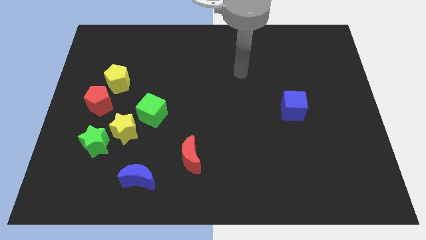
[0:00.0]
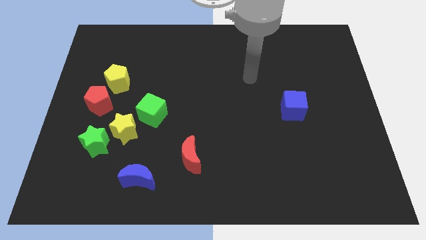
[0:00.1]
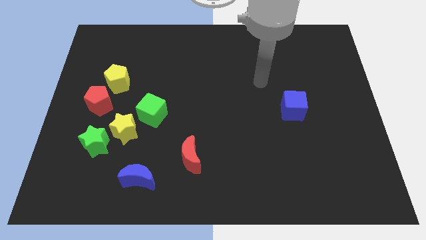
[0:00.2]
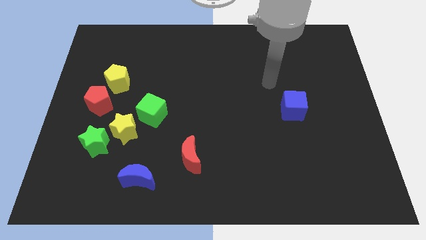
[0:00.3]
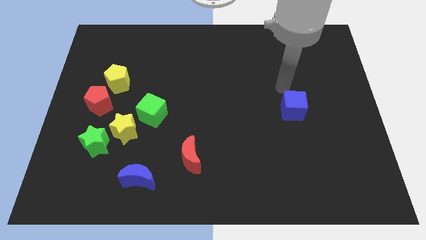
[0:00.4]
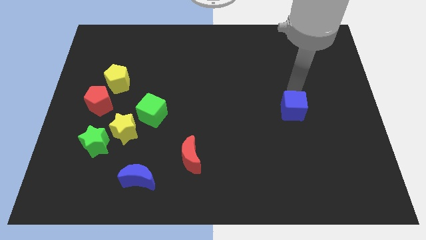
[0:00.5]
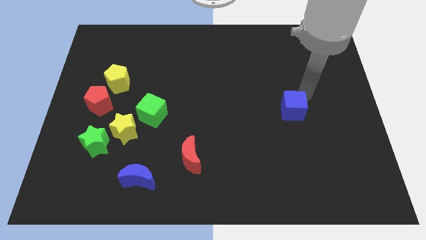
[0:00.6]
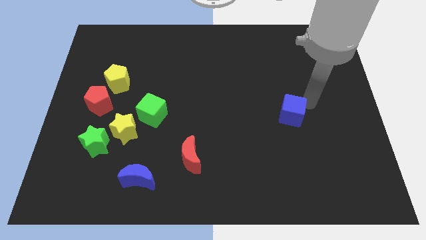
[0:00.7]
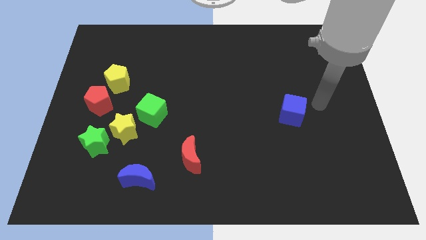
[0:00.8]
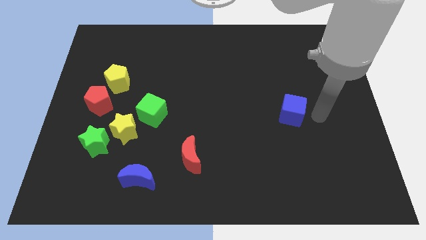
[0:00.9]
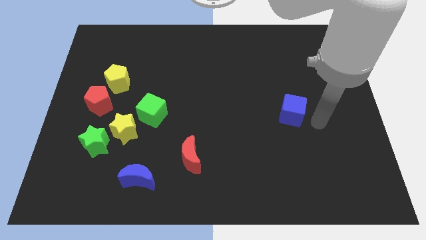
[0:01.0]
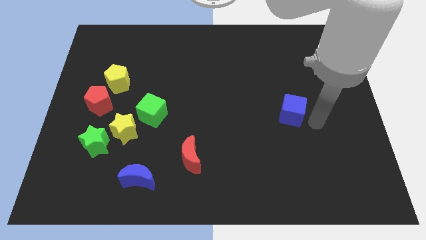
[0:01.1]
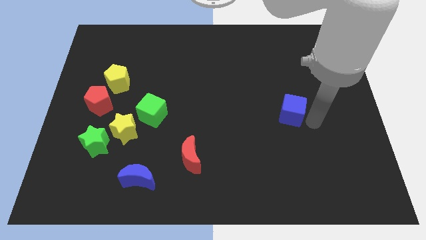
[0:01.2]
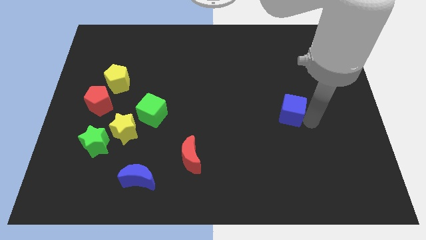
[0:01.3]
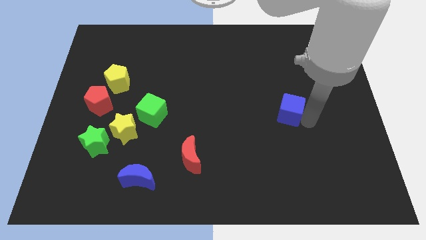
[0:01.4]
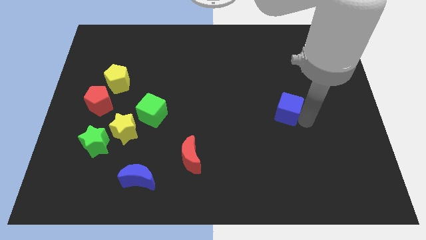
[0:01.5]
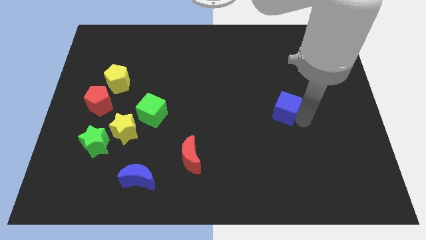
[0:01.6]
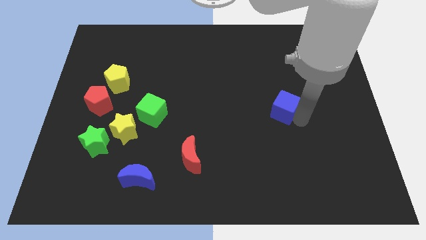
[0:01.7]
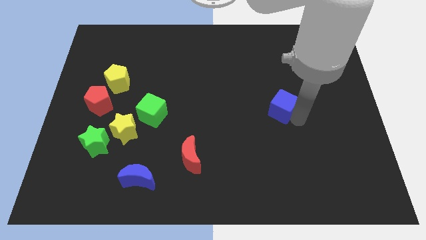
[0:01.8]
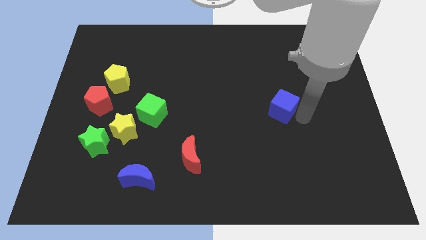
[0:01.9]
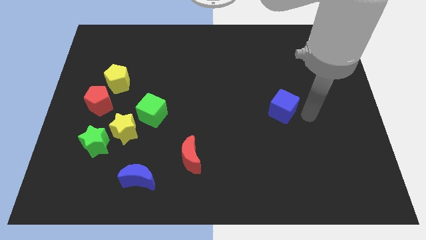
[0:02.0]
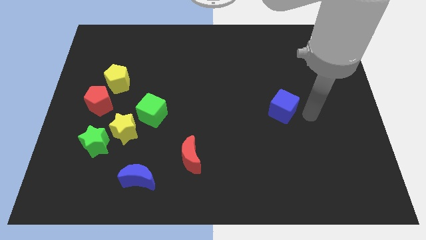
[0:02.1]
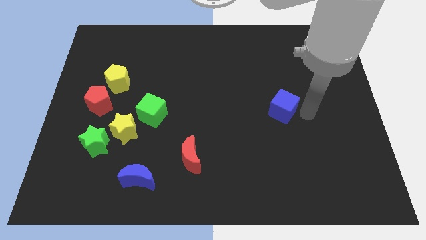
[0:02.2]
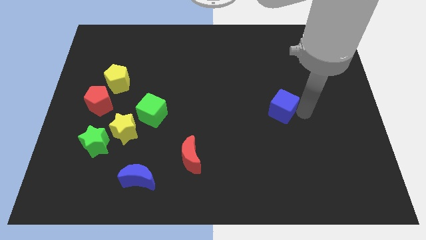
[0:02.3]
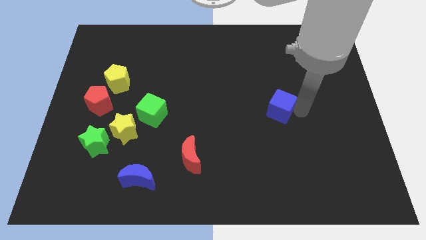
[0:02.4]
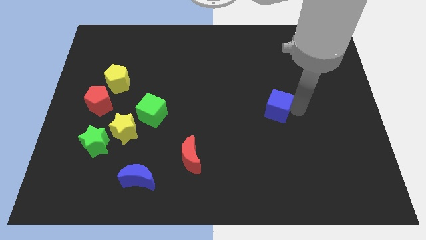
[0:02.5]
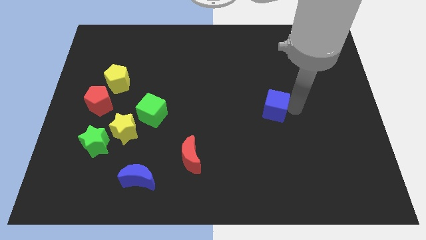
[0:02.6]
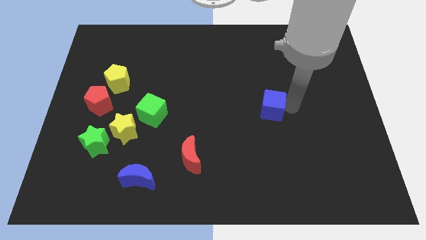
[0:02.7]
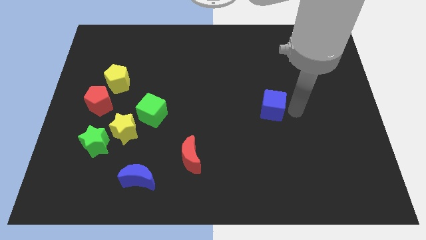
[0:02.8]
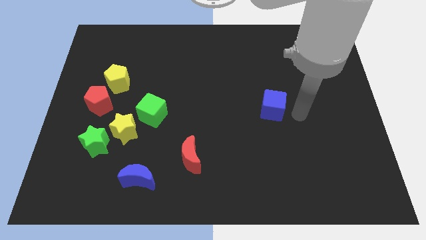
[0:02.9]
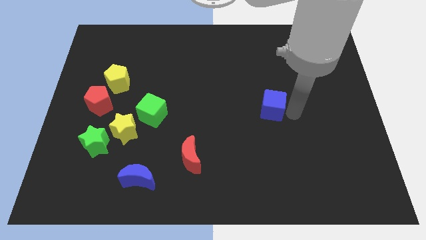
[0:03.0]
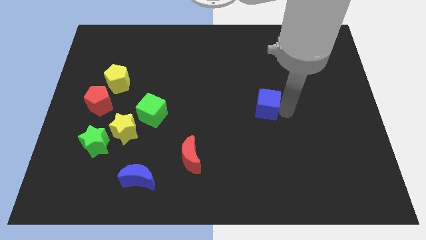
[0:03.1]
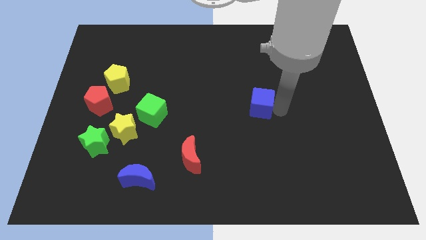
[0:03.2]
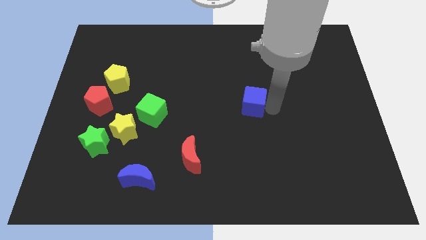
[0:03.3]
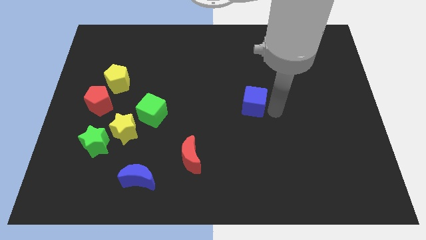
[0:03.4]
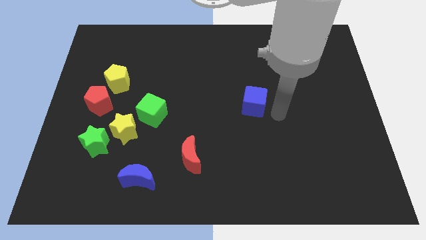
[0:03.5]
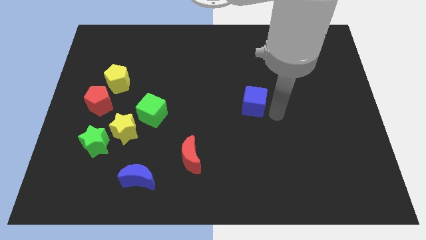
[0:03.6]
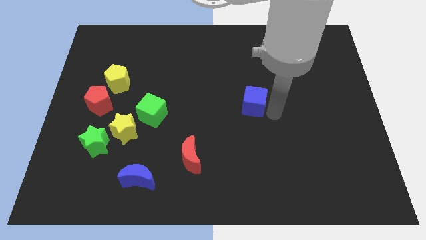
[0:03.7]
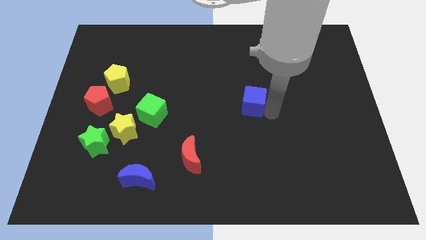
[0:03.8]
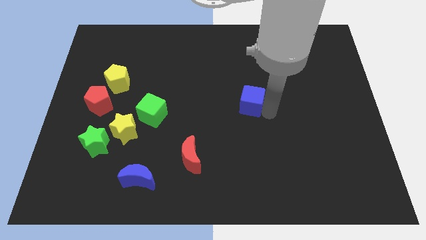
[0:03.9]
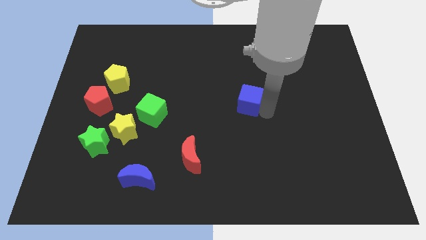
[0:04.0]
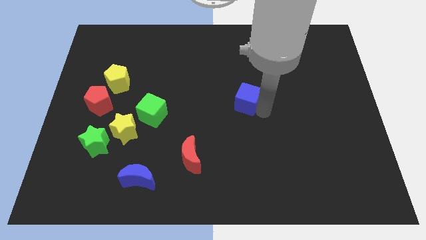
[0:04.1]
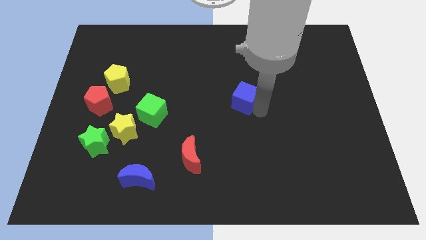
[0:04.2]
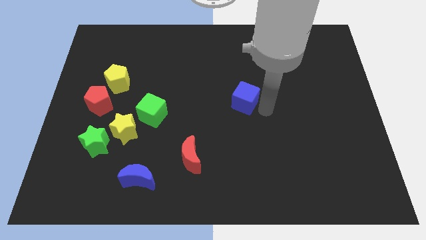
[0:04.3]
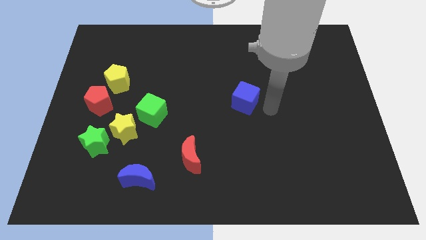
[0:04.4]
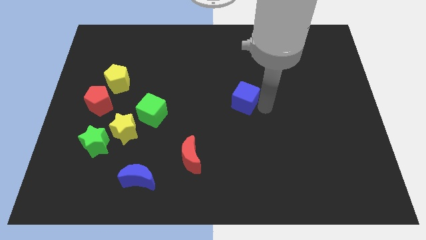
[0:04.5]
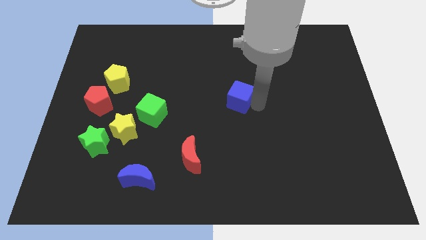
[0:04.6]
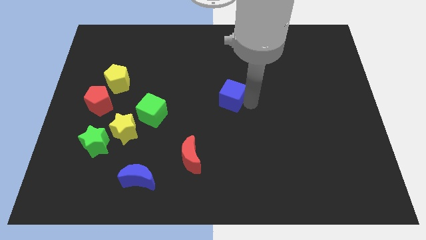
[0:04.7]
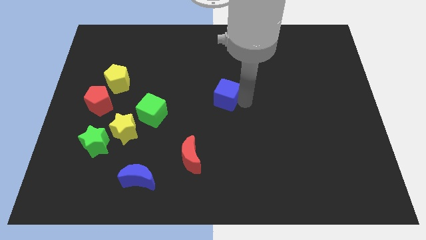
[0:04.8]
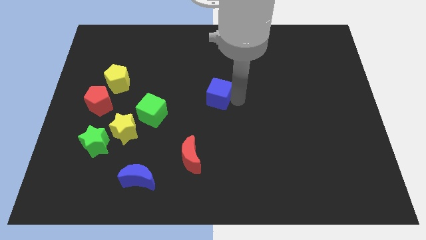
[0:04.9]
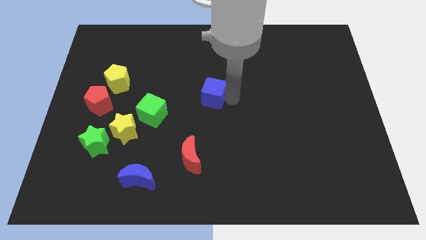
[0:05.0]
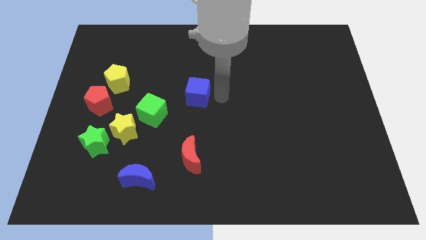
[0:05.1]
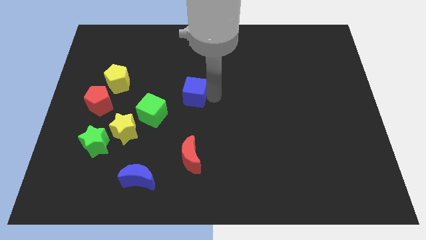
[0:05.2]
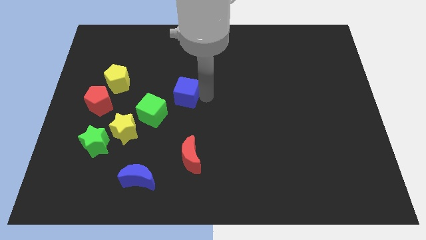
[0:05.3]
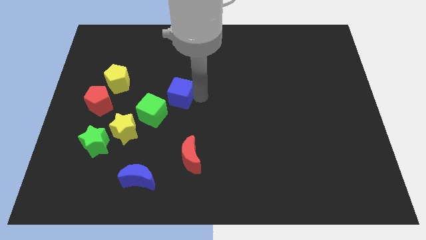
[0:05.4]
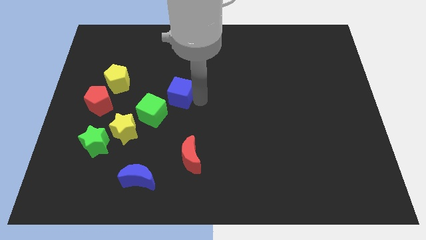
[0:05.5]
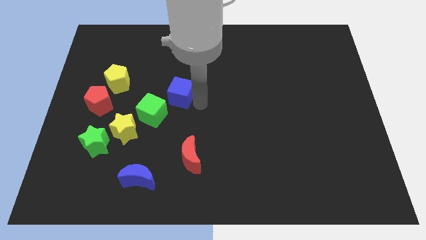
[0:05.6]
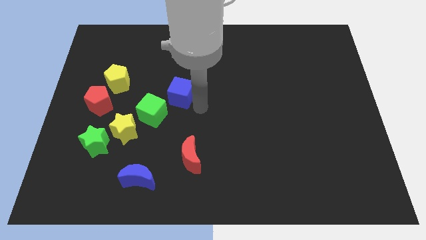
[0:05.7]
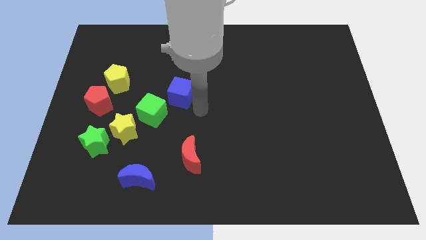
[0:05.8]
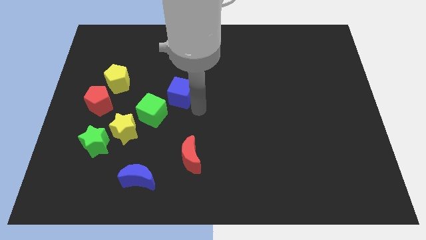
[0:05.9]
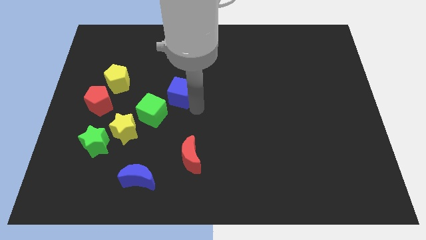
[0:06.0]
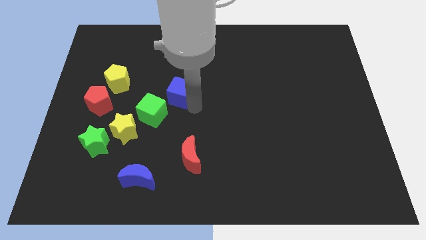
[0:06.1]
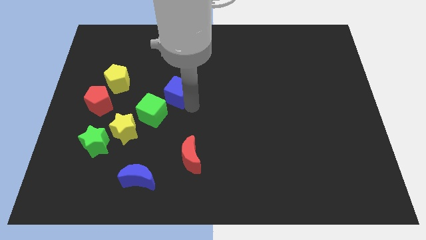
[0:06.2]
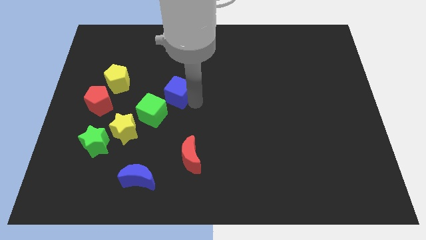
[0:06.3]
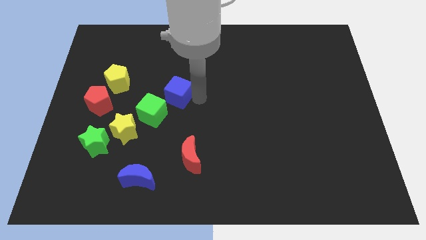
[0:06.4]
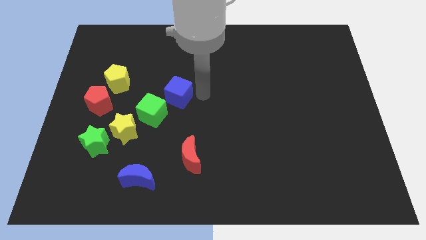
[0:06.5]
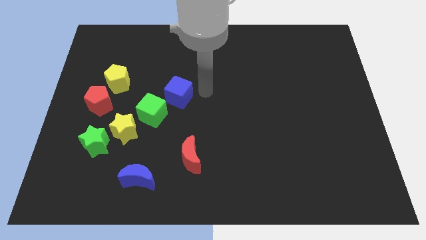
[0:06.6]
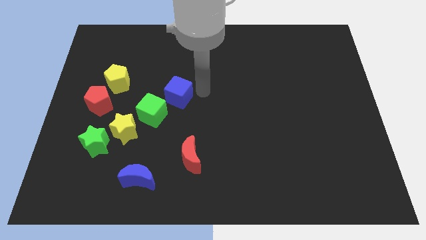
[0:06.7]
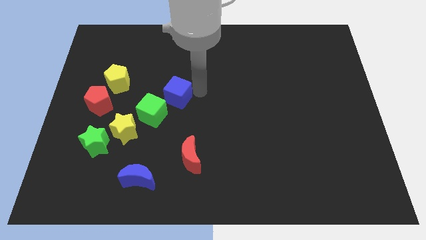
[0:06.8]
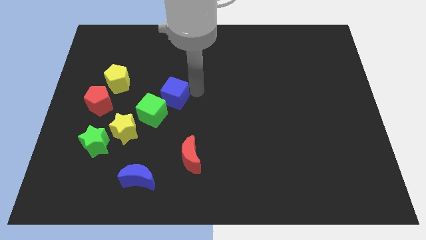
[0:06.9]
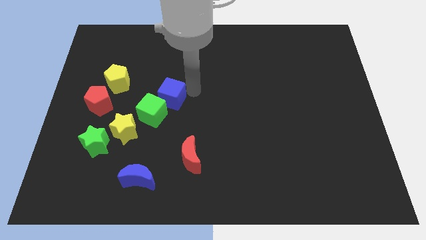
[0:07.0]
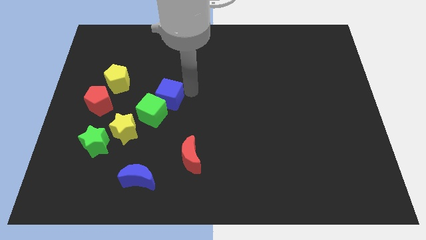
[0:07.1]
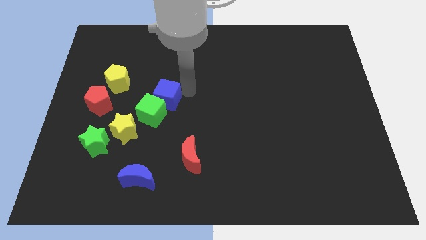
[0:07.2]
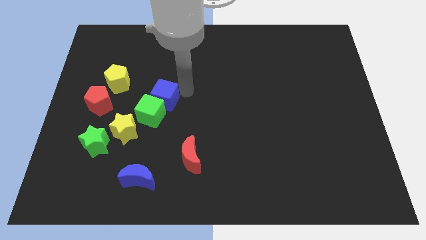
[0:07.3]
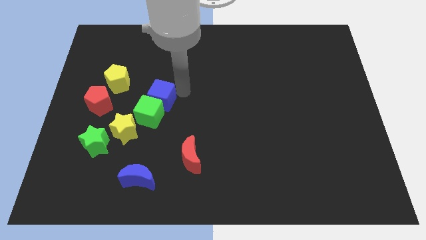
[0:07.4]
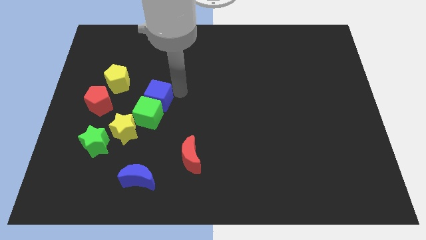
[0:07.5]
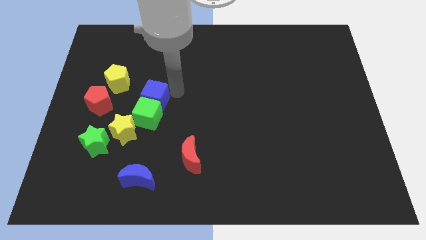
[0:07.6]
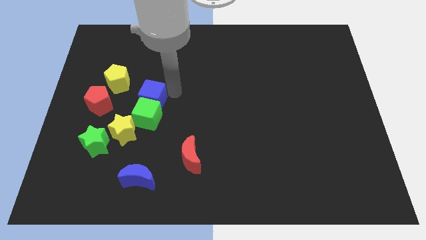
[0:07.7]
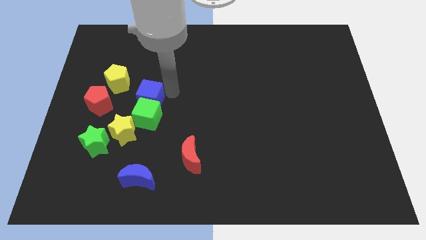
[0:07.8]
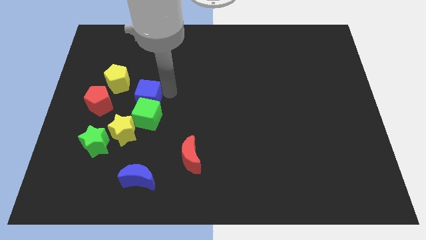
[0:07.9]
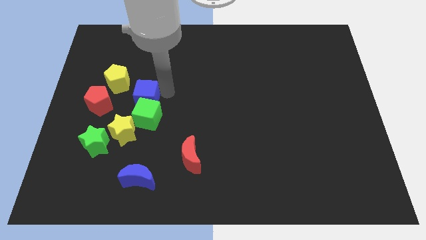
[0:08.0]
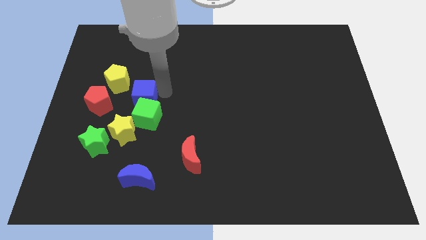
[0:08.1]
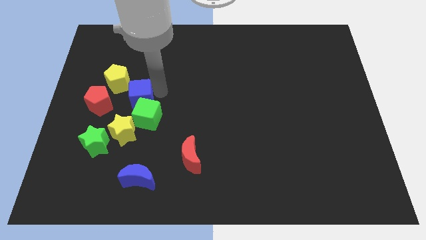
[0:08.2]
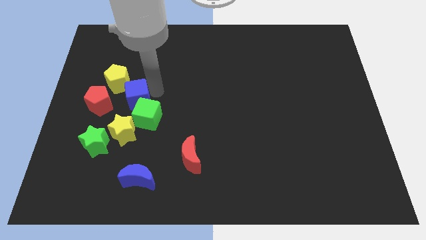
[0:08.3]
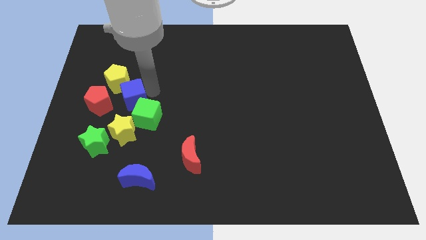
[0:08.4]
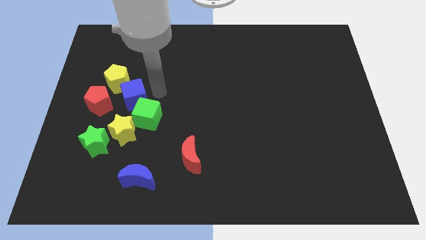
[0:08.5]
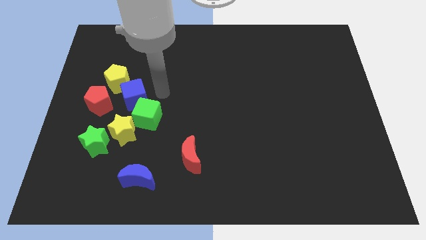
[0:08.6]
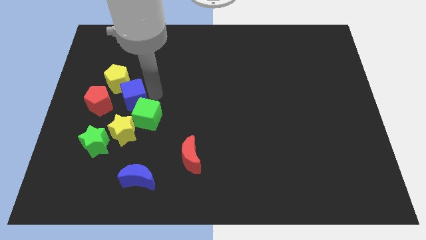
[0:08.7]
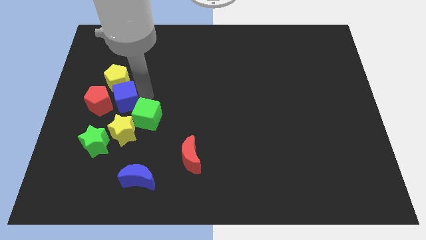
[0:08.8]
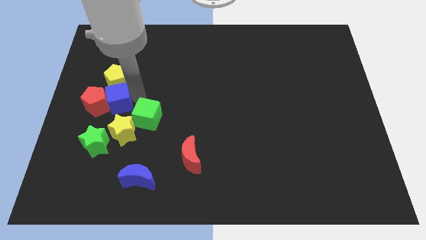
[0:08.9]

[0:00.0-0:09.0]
put the blue cube towards the red pentagon
